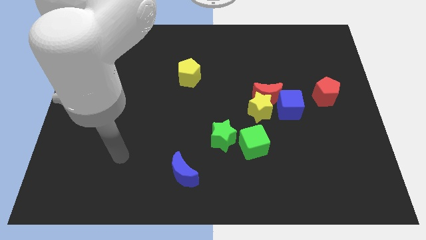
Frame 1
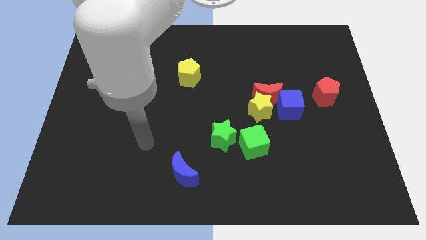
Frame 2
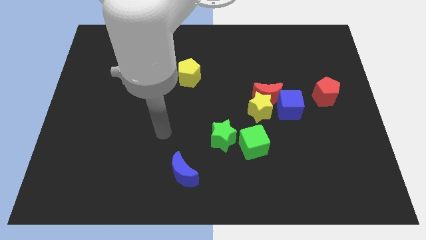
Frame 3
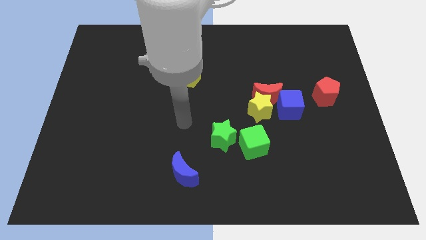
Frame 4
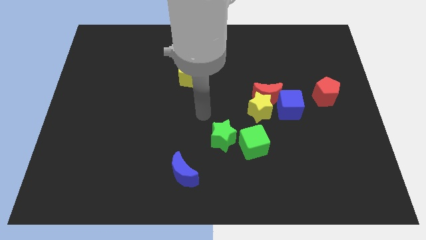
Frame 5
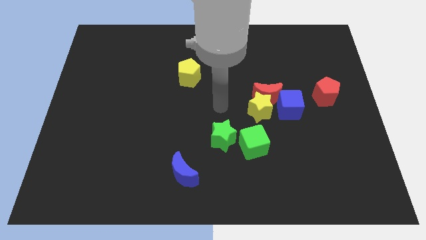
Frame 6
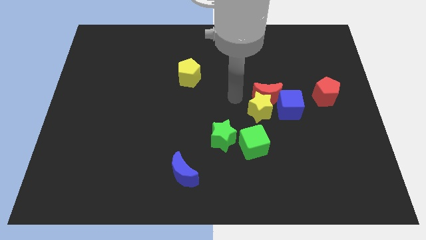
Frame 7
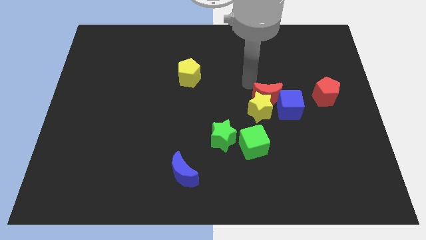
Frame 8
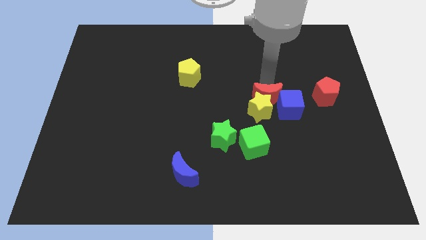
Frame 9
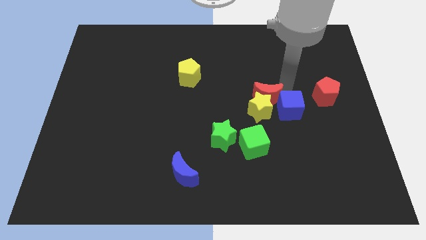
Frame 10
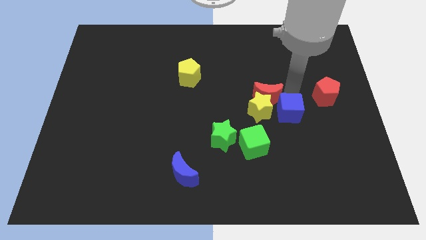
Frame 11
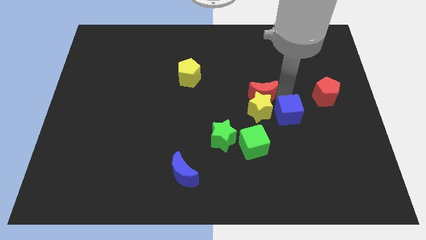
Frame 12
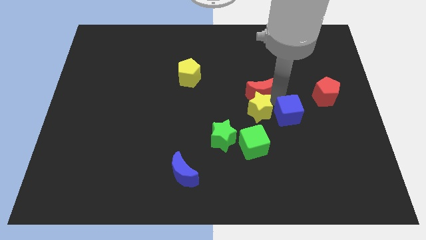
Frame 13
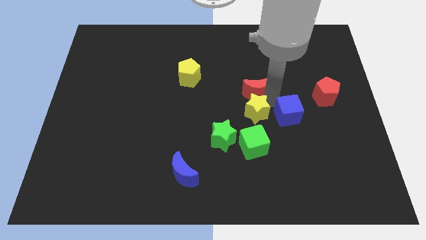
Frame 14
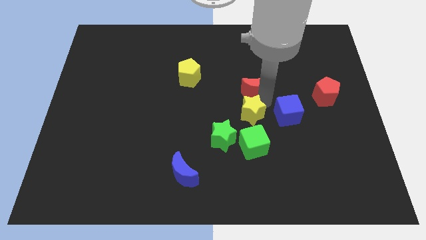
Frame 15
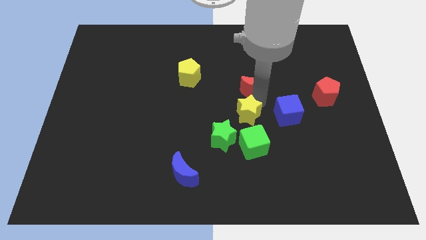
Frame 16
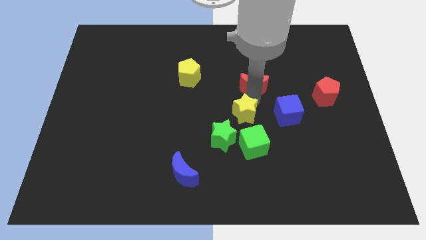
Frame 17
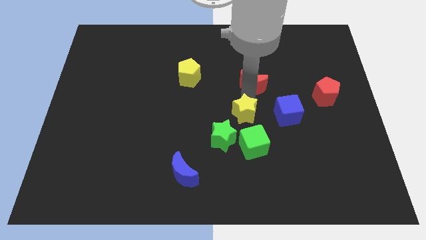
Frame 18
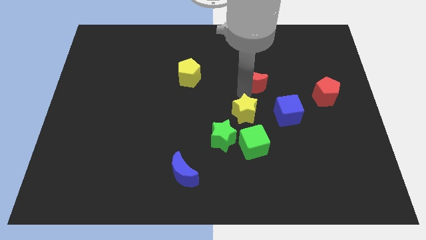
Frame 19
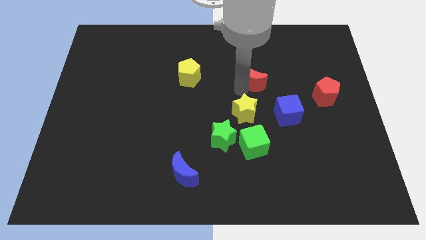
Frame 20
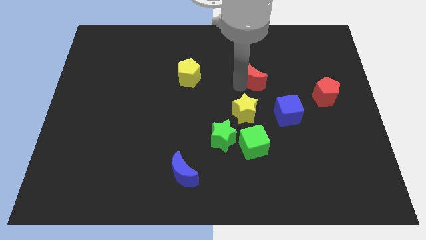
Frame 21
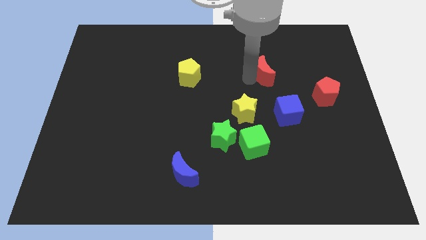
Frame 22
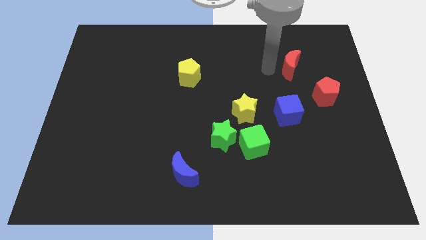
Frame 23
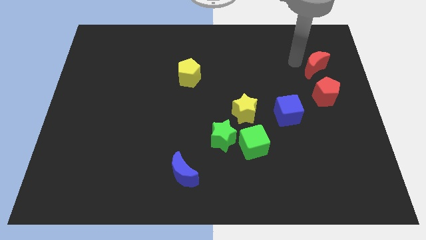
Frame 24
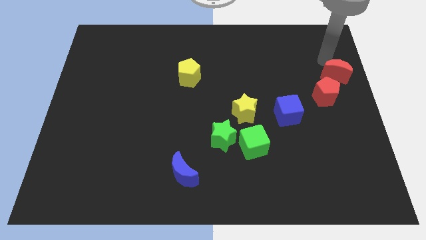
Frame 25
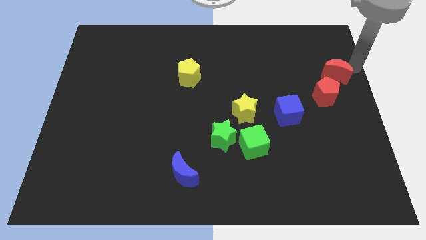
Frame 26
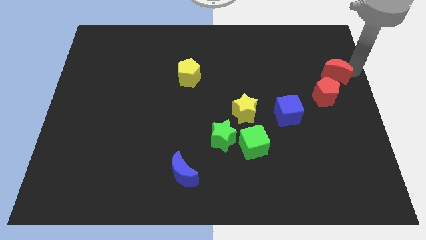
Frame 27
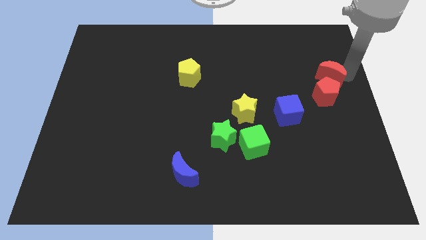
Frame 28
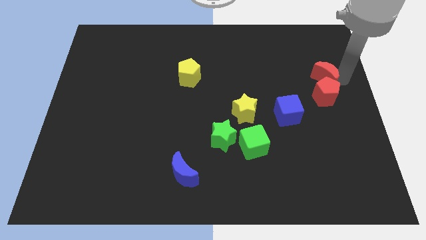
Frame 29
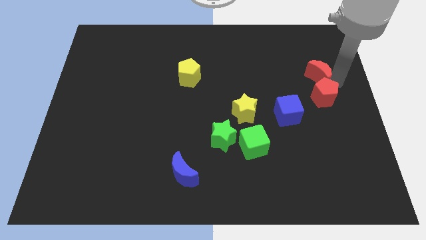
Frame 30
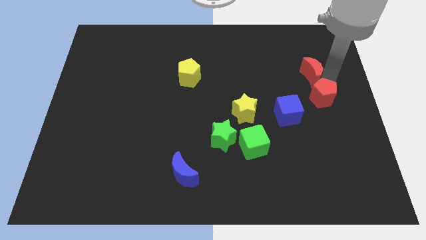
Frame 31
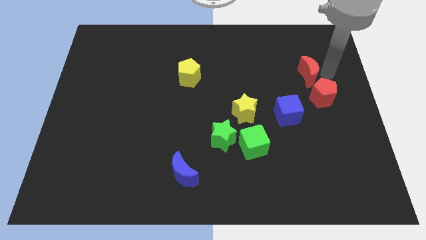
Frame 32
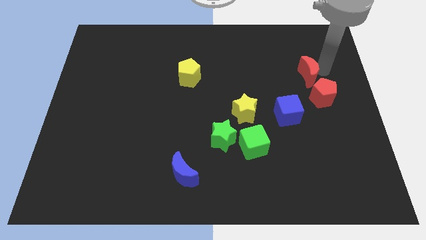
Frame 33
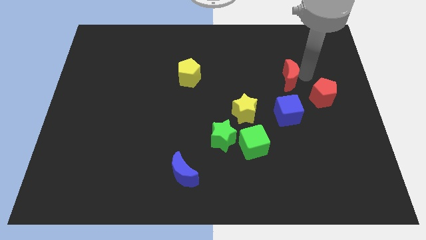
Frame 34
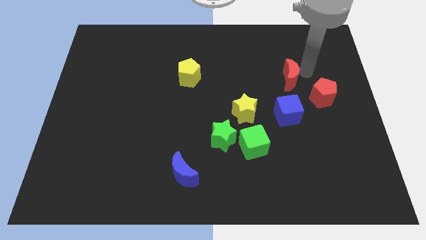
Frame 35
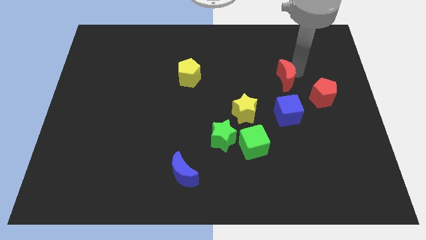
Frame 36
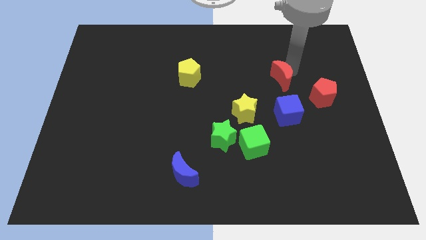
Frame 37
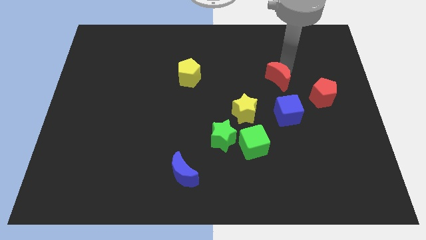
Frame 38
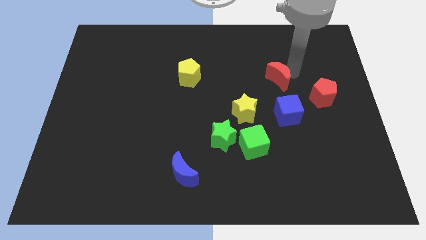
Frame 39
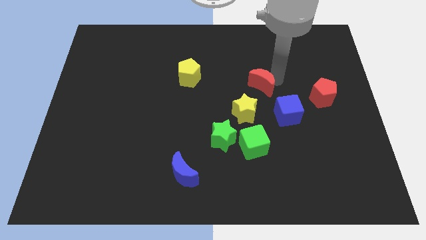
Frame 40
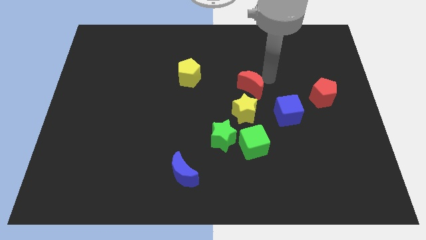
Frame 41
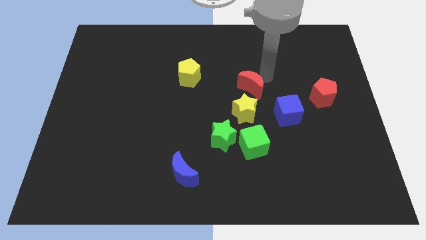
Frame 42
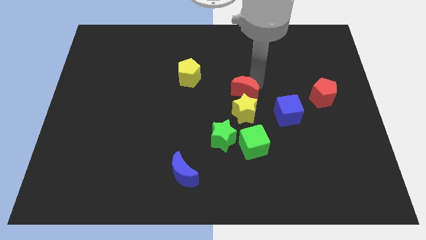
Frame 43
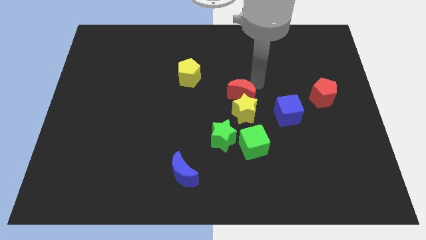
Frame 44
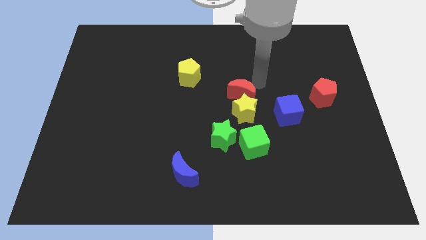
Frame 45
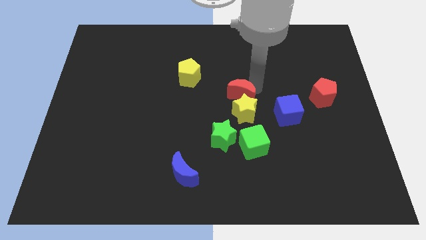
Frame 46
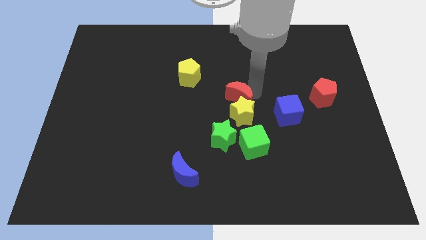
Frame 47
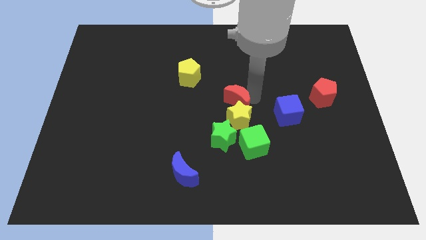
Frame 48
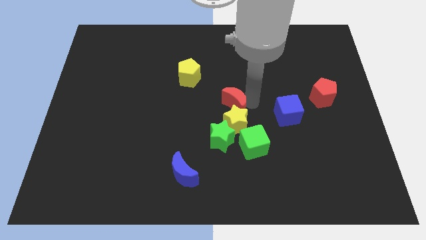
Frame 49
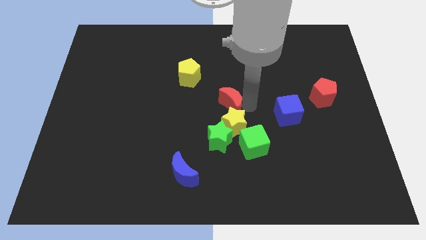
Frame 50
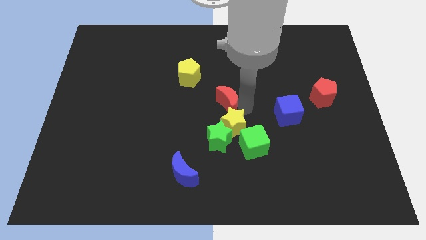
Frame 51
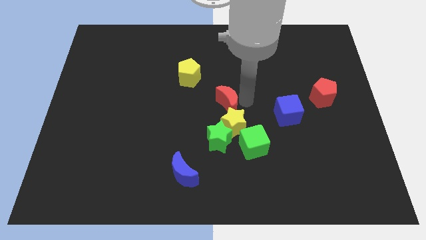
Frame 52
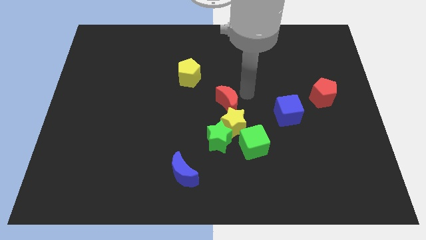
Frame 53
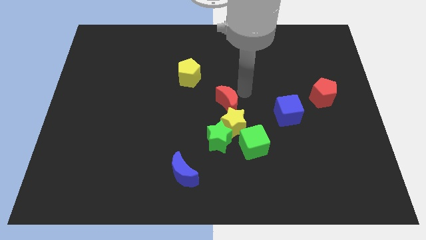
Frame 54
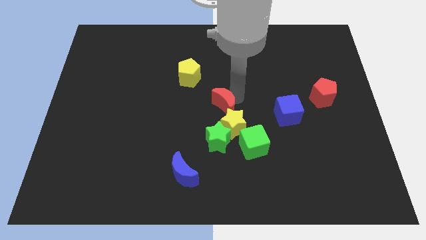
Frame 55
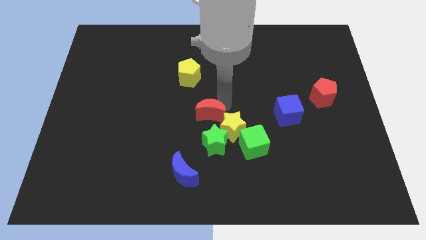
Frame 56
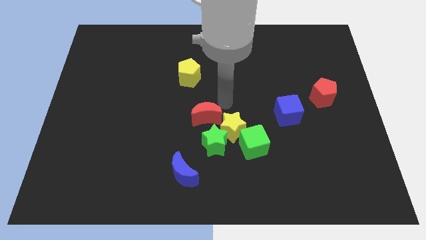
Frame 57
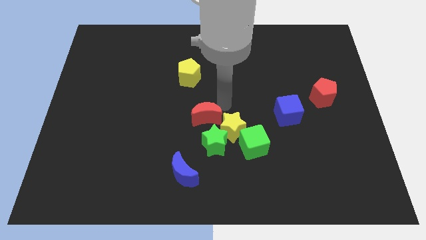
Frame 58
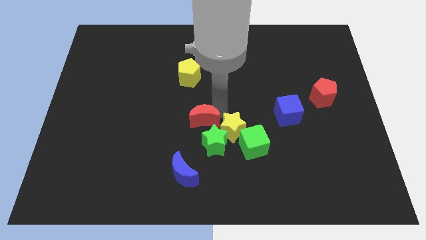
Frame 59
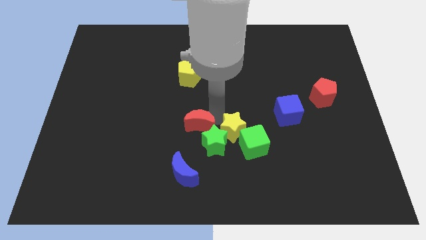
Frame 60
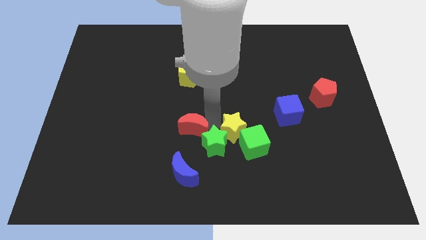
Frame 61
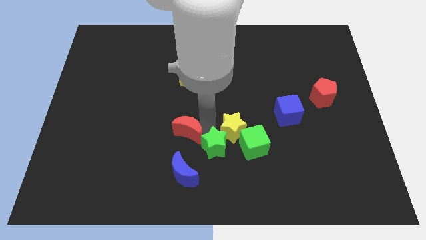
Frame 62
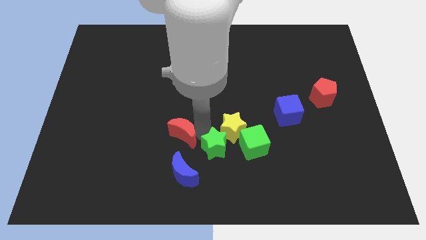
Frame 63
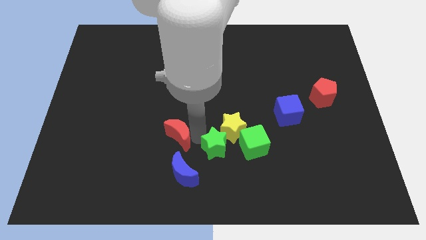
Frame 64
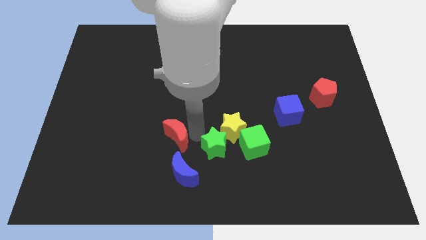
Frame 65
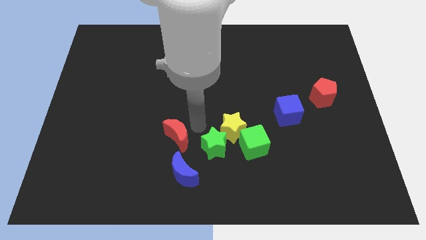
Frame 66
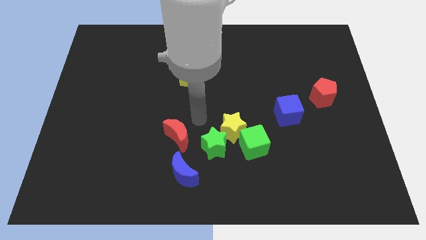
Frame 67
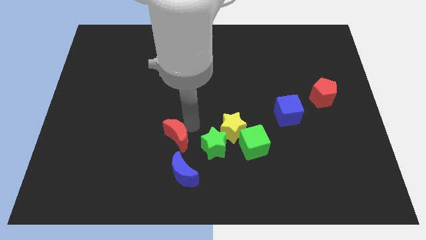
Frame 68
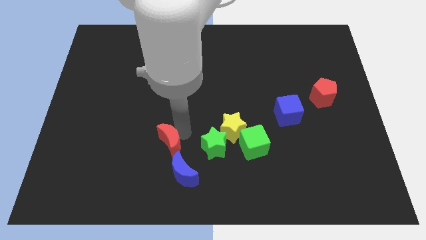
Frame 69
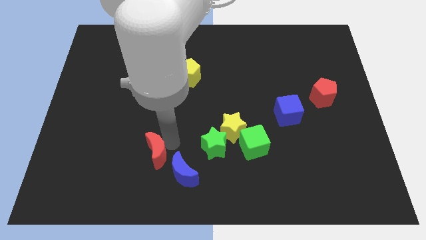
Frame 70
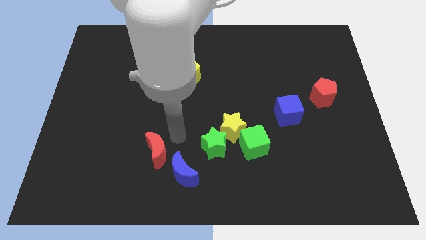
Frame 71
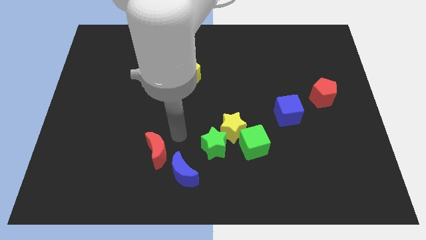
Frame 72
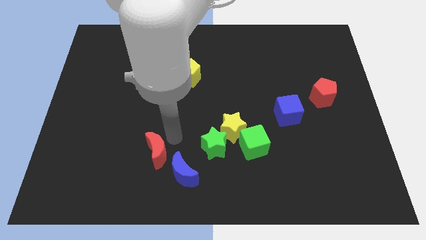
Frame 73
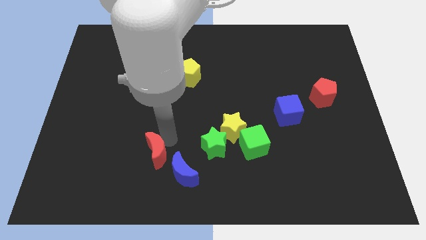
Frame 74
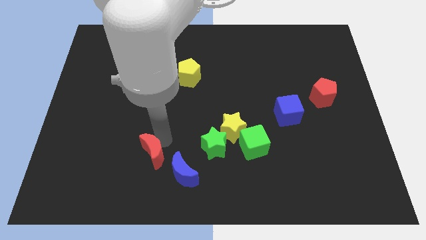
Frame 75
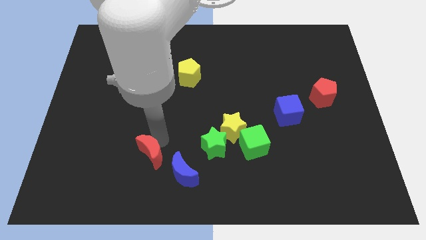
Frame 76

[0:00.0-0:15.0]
push the red moon just left of the blue moon
